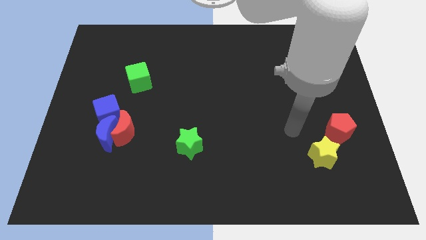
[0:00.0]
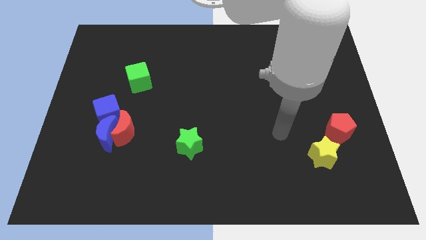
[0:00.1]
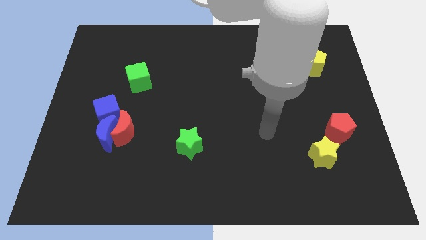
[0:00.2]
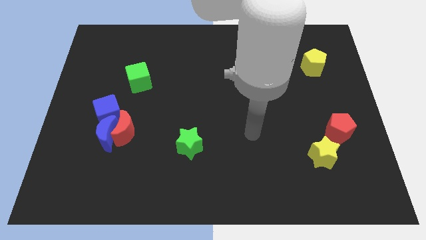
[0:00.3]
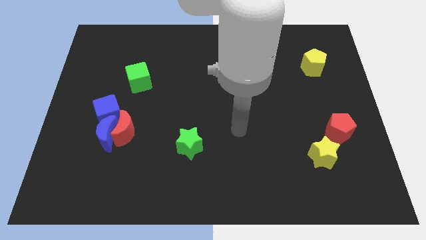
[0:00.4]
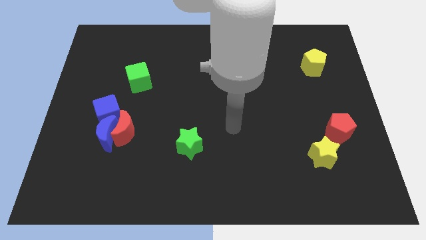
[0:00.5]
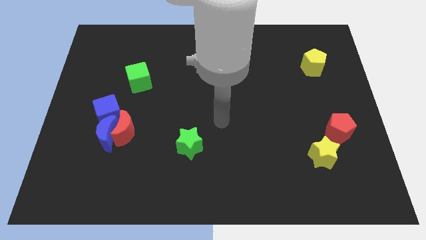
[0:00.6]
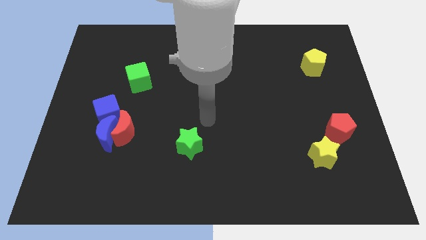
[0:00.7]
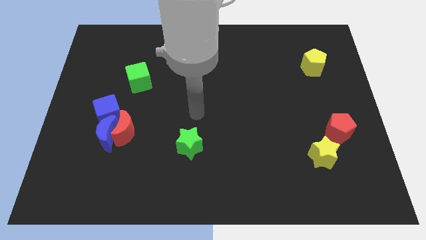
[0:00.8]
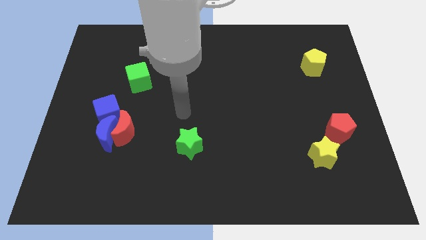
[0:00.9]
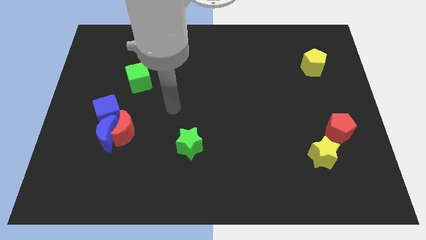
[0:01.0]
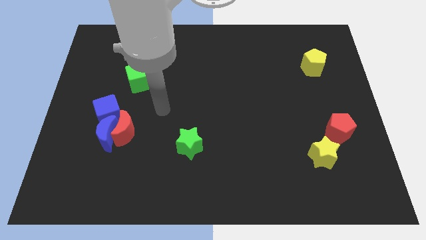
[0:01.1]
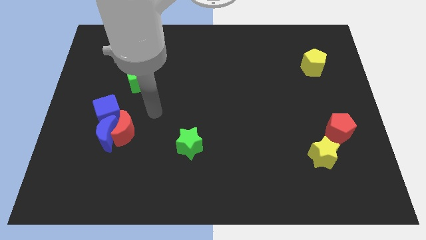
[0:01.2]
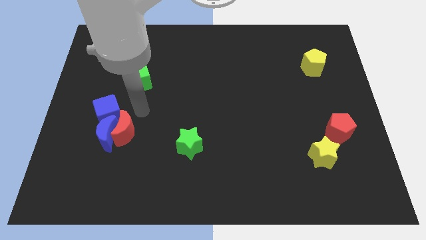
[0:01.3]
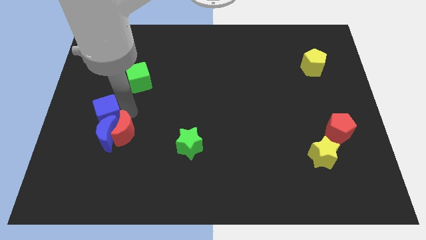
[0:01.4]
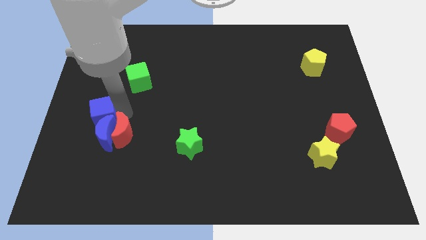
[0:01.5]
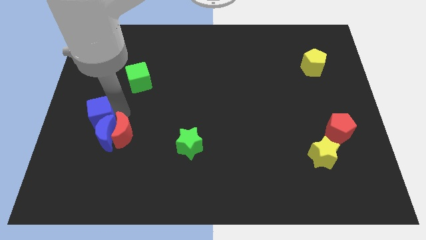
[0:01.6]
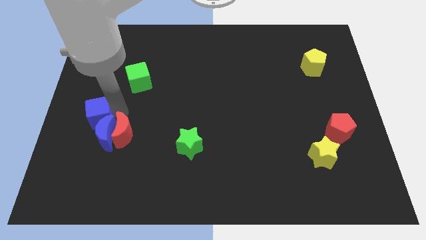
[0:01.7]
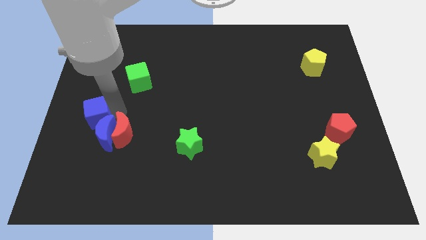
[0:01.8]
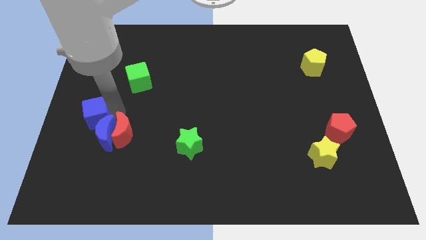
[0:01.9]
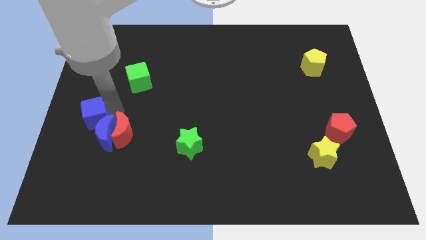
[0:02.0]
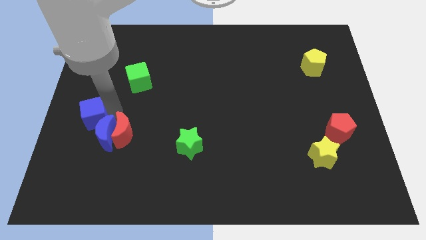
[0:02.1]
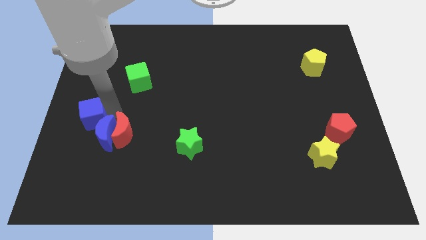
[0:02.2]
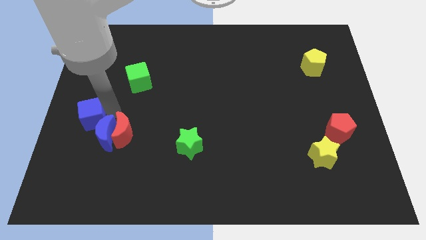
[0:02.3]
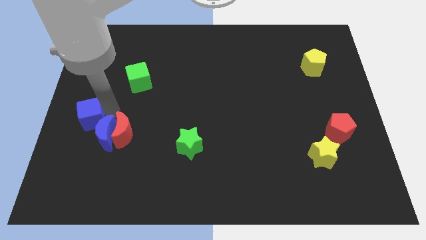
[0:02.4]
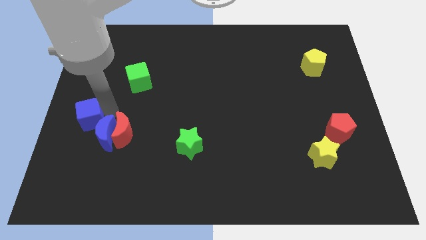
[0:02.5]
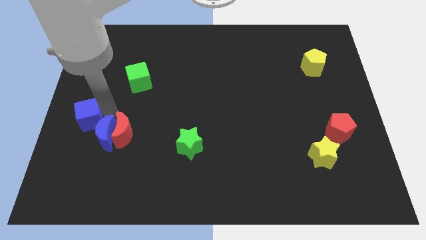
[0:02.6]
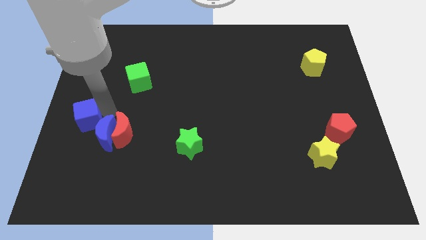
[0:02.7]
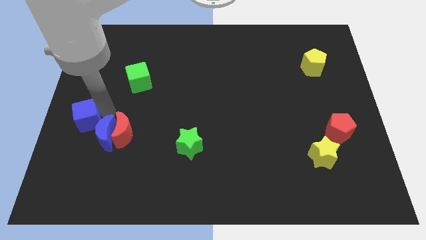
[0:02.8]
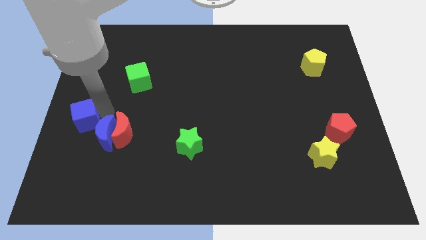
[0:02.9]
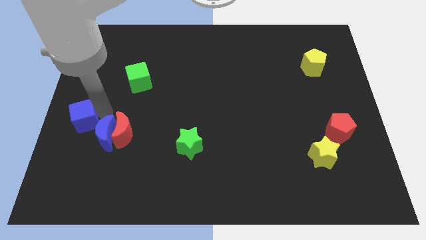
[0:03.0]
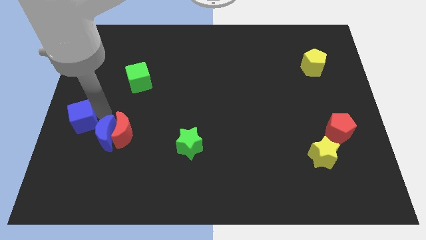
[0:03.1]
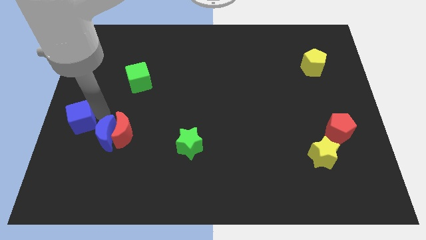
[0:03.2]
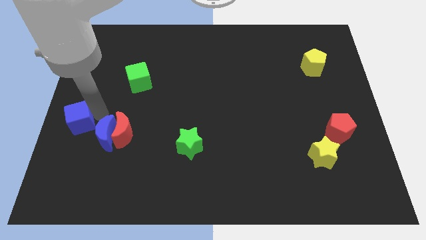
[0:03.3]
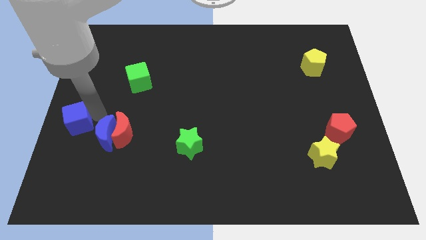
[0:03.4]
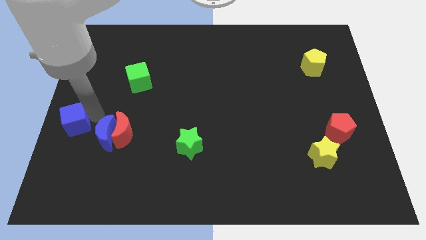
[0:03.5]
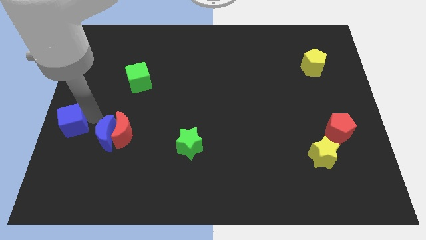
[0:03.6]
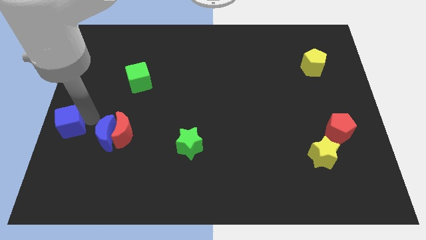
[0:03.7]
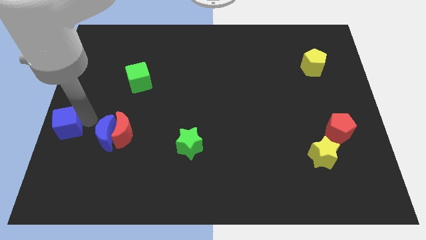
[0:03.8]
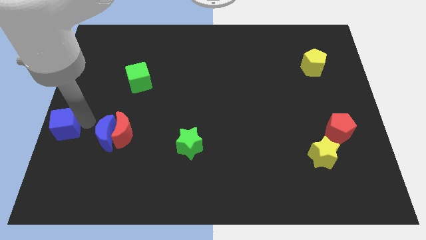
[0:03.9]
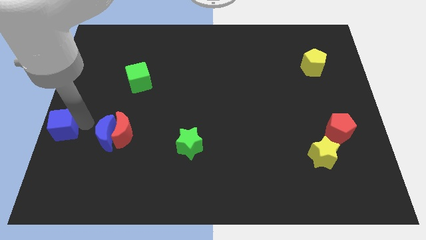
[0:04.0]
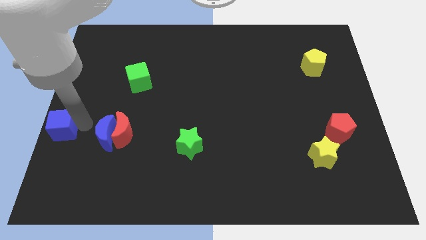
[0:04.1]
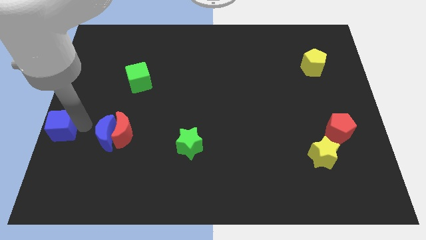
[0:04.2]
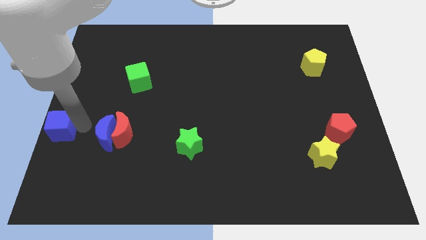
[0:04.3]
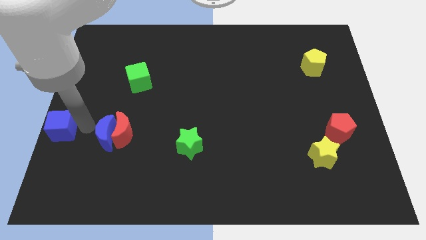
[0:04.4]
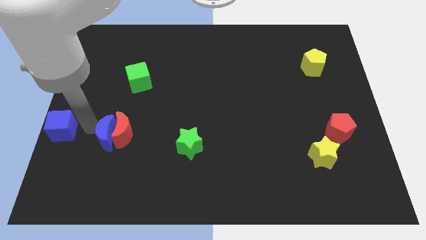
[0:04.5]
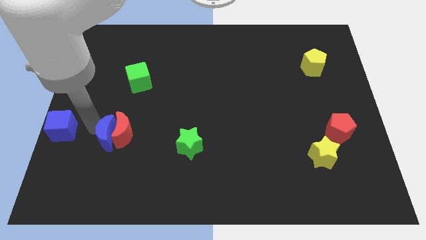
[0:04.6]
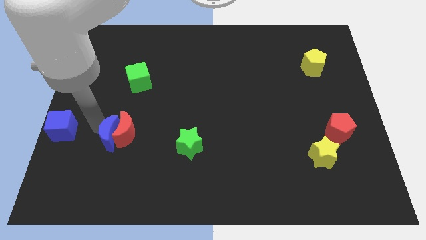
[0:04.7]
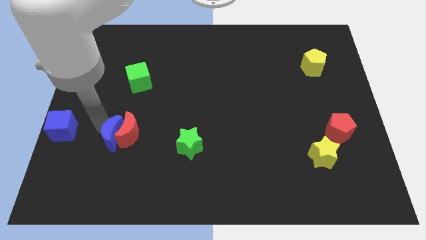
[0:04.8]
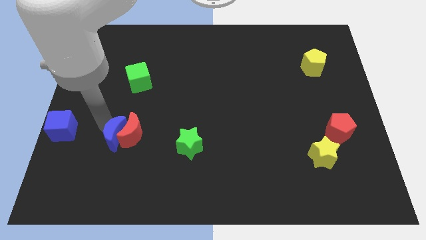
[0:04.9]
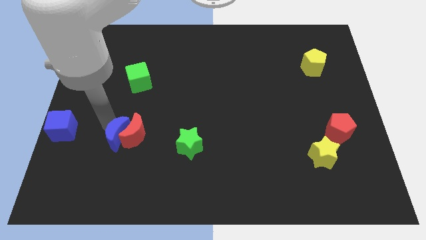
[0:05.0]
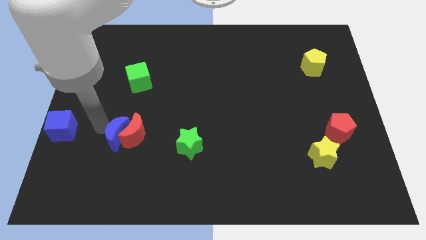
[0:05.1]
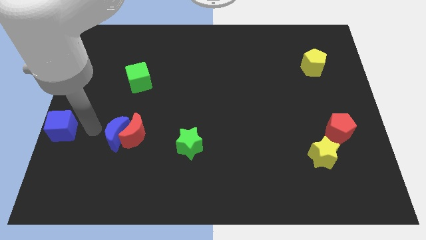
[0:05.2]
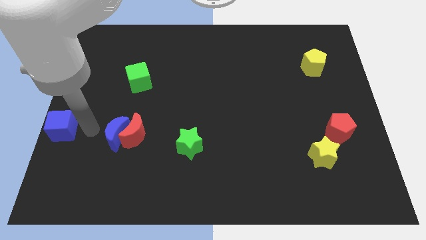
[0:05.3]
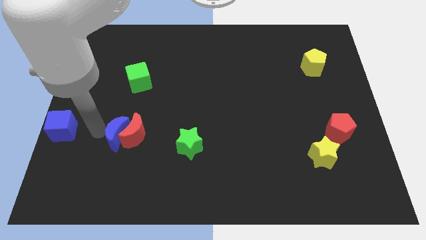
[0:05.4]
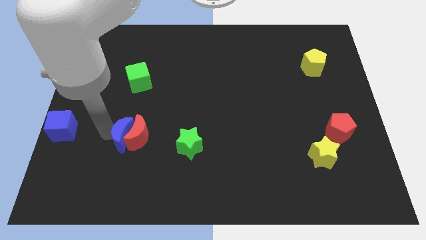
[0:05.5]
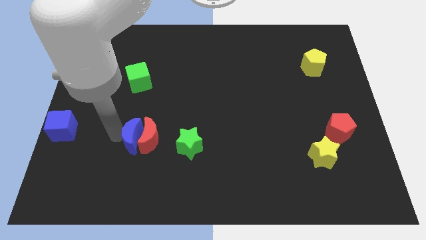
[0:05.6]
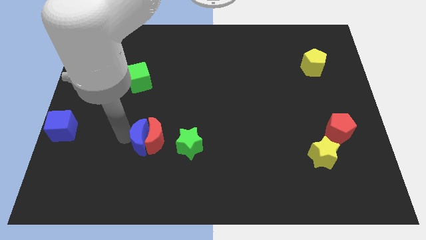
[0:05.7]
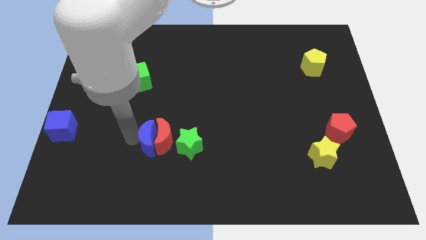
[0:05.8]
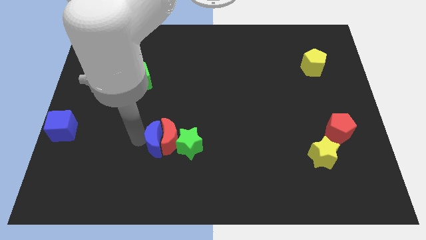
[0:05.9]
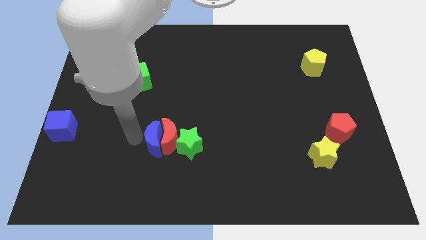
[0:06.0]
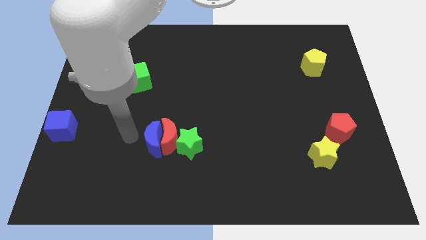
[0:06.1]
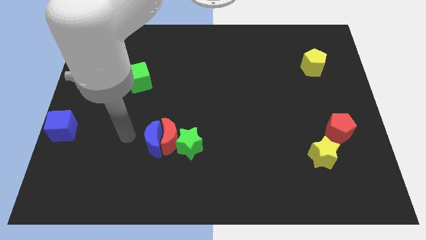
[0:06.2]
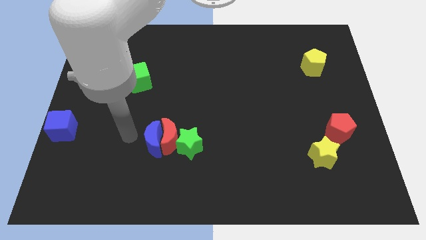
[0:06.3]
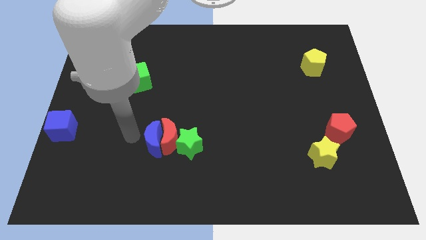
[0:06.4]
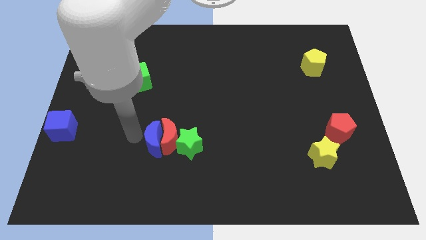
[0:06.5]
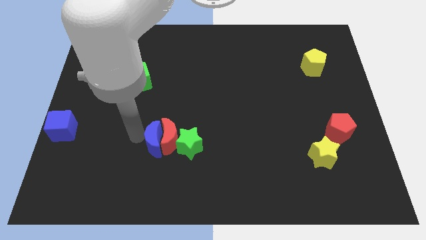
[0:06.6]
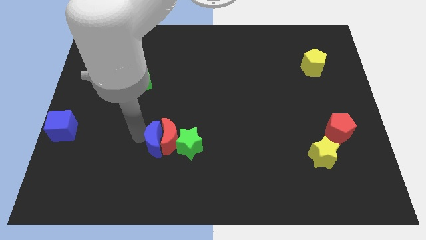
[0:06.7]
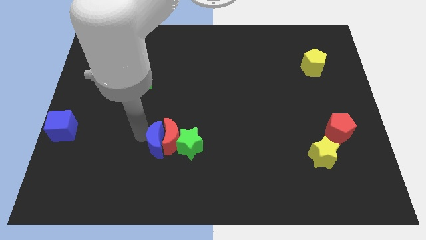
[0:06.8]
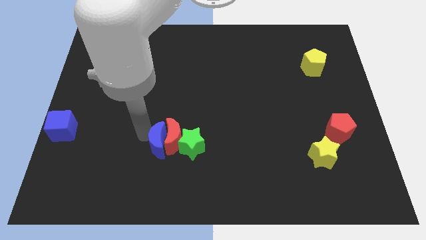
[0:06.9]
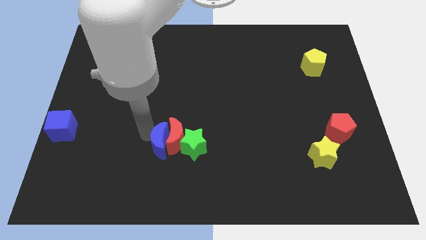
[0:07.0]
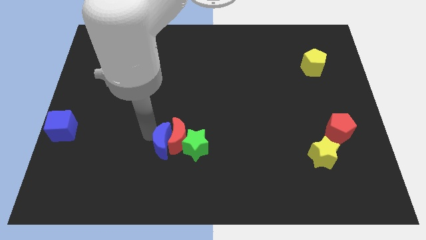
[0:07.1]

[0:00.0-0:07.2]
pull the blue moon apart from the red moon and blue cube

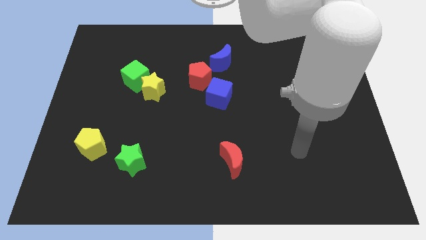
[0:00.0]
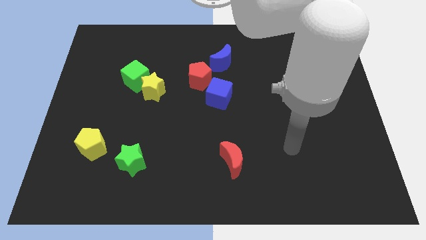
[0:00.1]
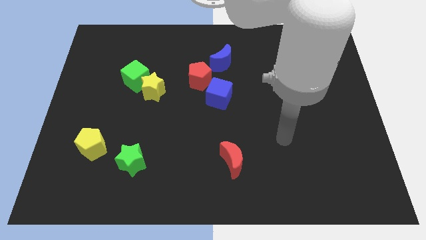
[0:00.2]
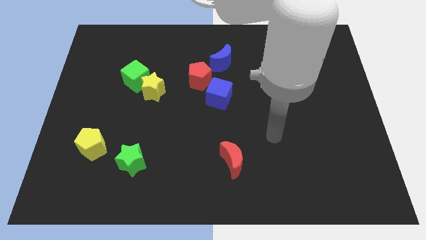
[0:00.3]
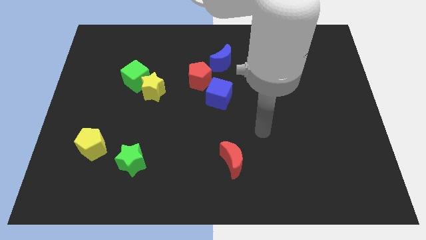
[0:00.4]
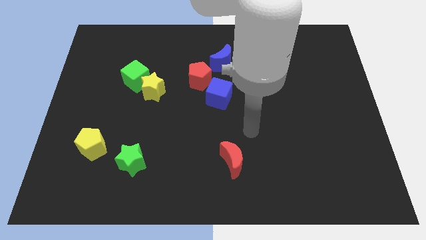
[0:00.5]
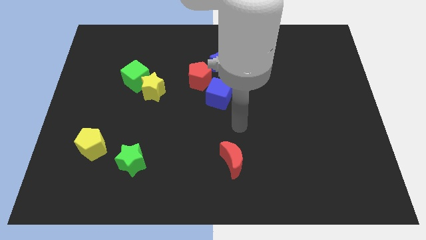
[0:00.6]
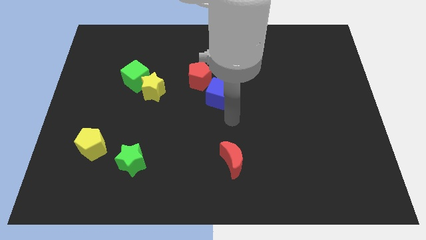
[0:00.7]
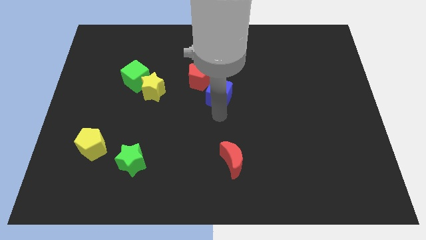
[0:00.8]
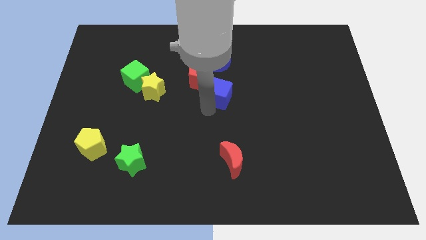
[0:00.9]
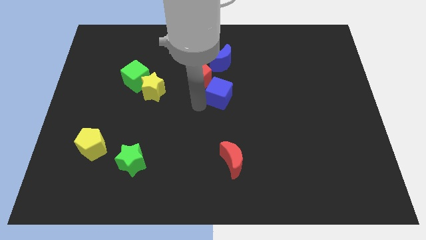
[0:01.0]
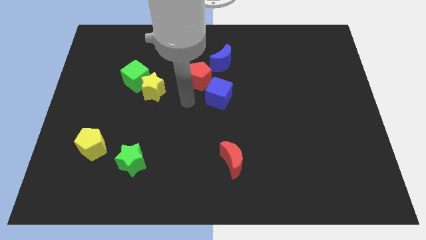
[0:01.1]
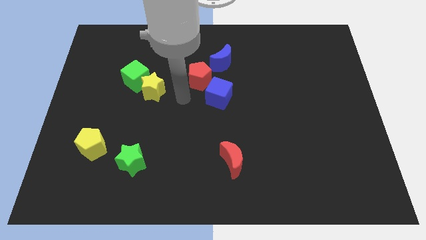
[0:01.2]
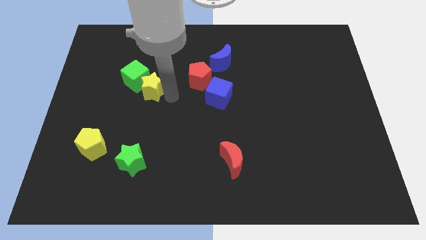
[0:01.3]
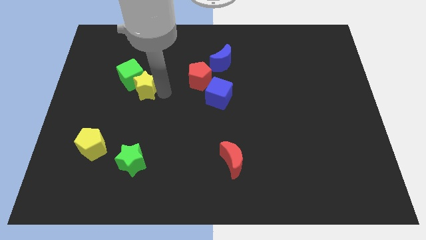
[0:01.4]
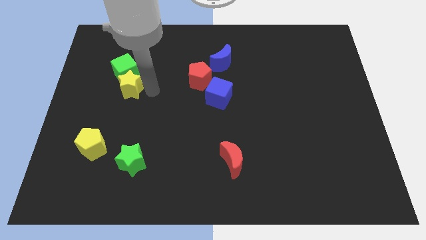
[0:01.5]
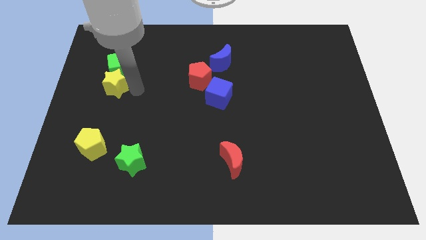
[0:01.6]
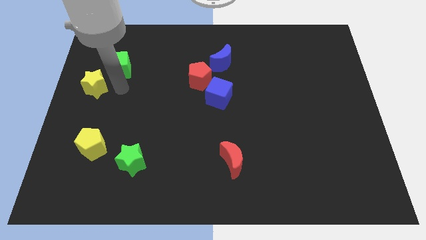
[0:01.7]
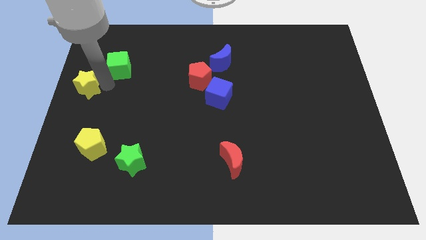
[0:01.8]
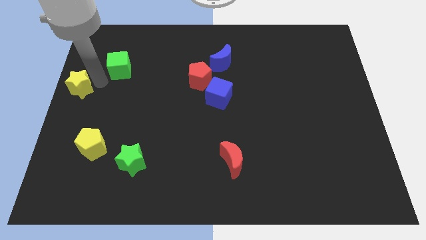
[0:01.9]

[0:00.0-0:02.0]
separate the green cube from the yellow star

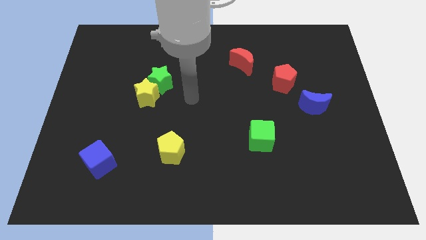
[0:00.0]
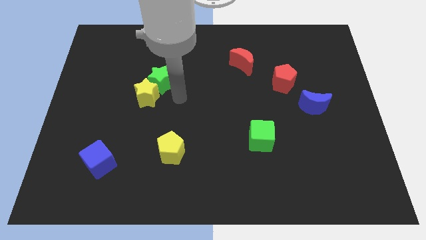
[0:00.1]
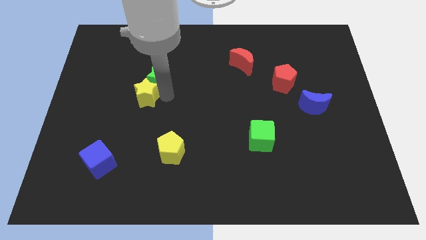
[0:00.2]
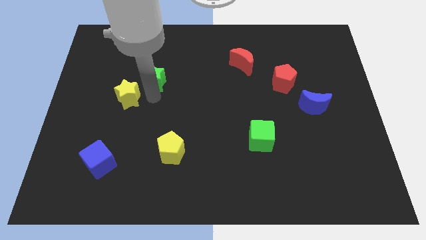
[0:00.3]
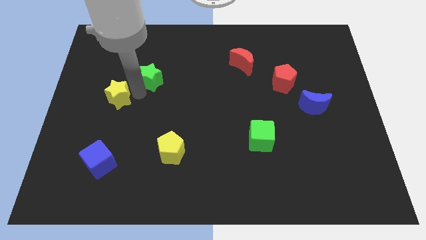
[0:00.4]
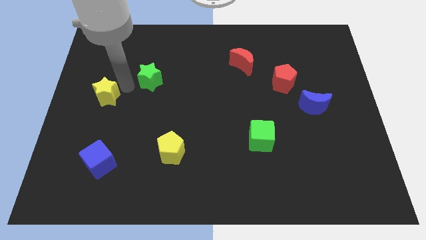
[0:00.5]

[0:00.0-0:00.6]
move the green star away from the yellow star
